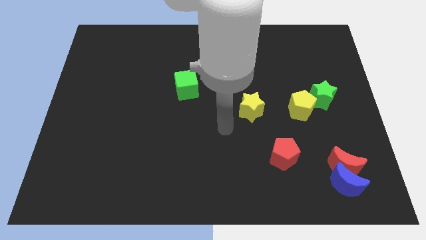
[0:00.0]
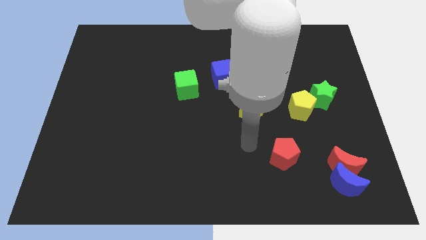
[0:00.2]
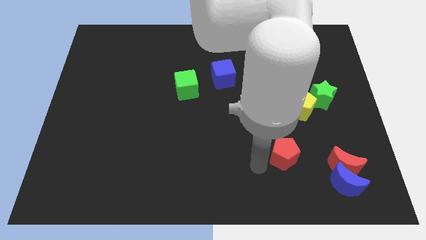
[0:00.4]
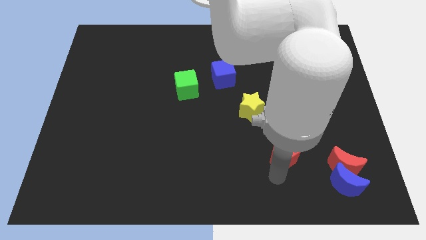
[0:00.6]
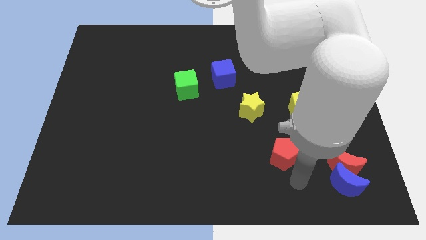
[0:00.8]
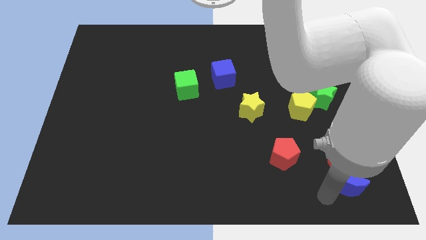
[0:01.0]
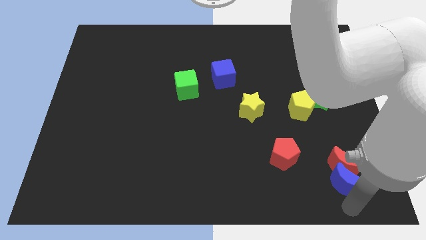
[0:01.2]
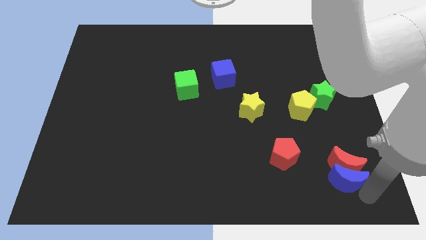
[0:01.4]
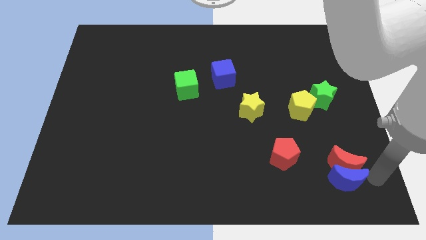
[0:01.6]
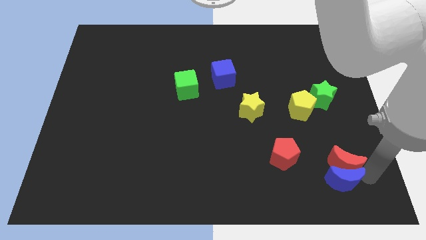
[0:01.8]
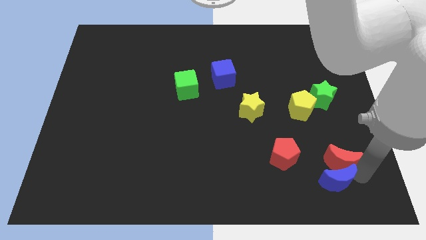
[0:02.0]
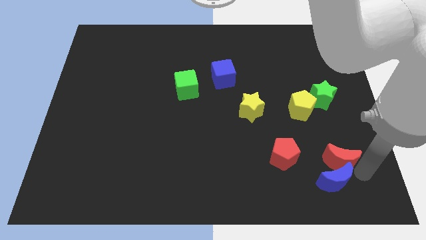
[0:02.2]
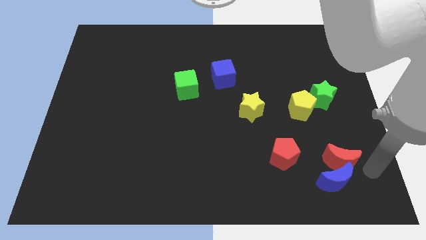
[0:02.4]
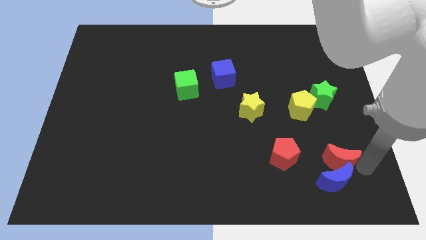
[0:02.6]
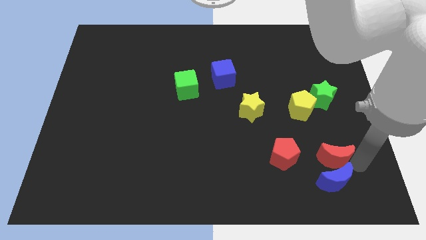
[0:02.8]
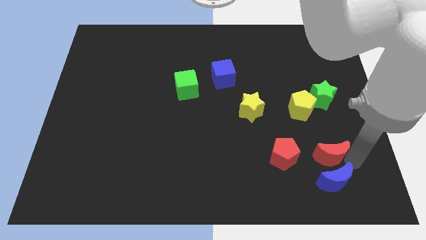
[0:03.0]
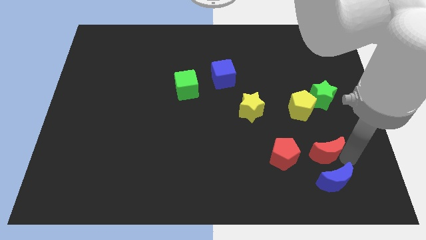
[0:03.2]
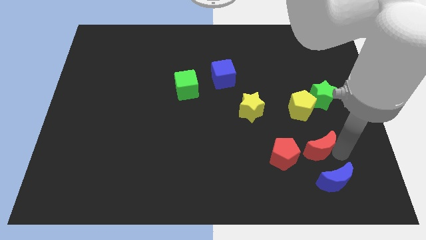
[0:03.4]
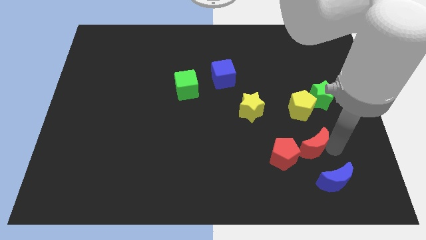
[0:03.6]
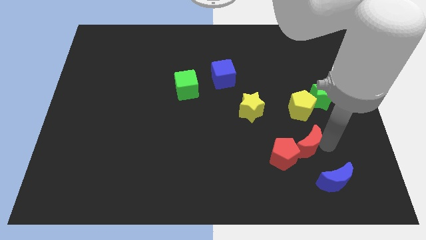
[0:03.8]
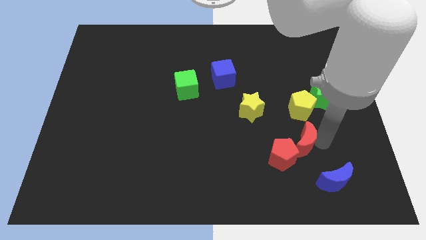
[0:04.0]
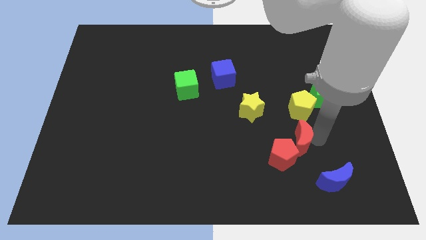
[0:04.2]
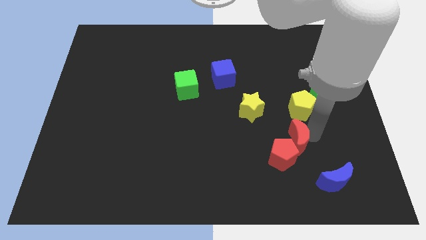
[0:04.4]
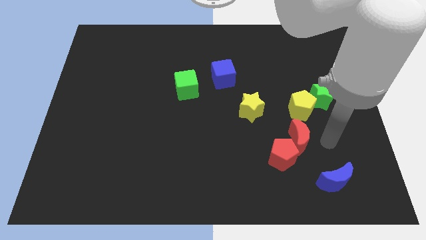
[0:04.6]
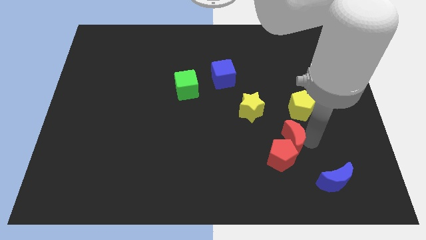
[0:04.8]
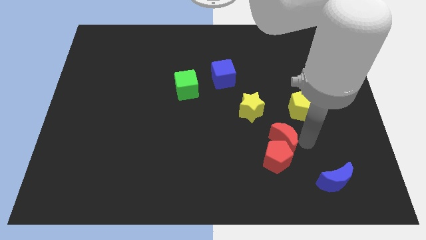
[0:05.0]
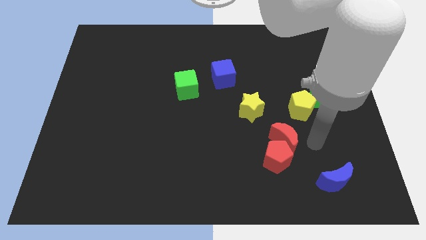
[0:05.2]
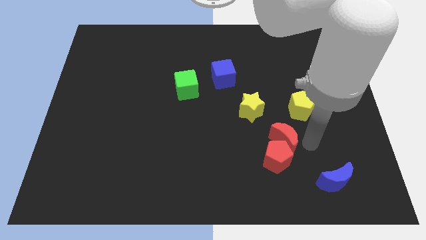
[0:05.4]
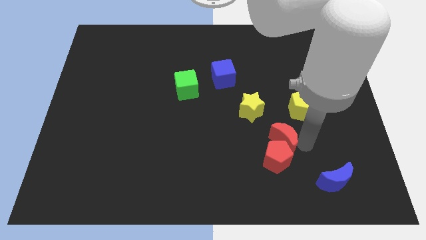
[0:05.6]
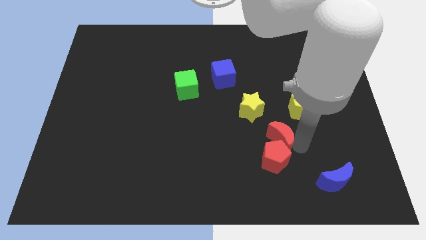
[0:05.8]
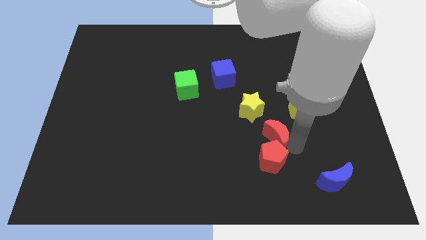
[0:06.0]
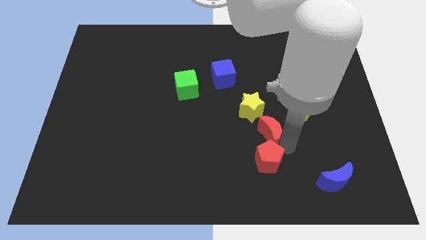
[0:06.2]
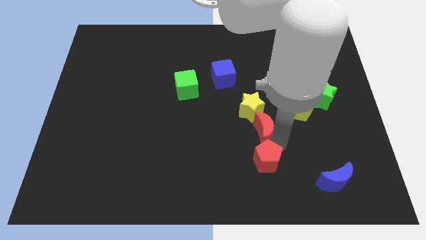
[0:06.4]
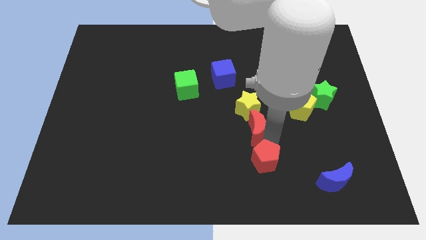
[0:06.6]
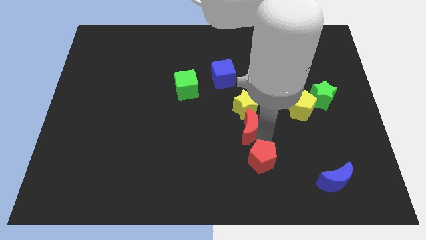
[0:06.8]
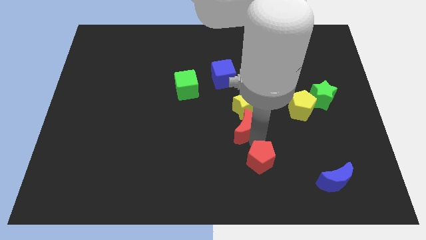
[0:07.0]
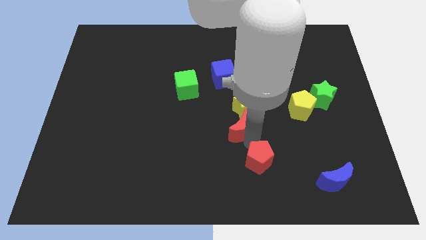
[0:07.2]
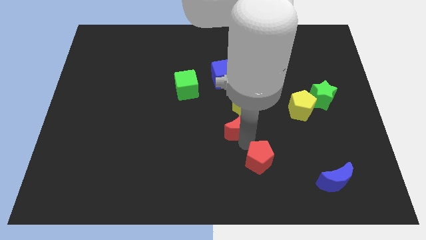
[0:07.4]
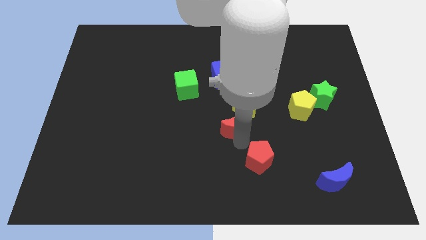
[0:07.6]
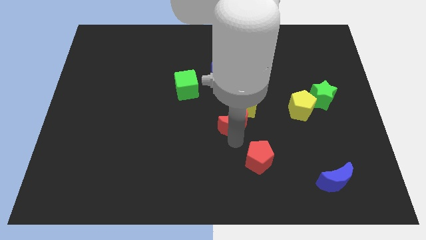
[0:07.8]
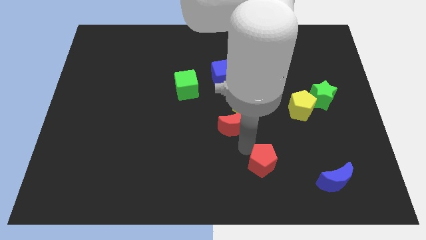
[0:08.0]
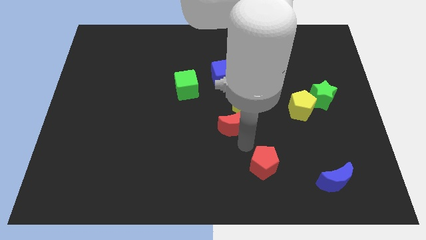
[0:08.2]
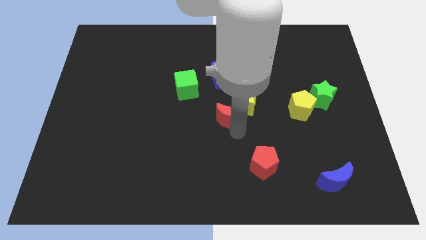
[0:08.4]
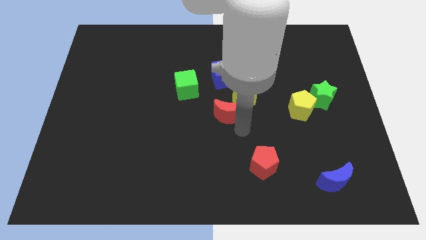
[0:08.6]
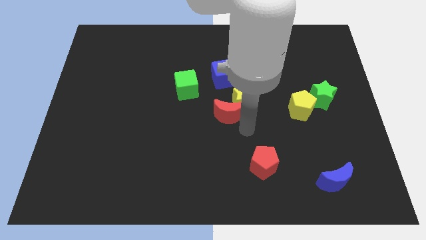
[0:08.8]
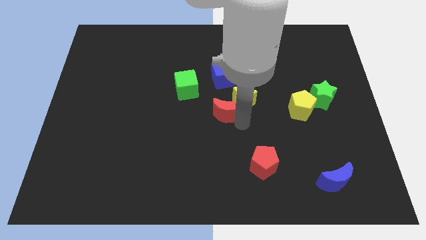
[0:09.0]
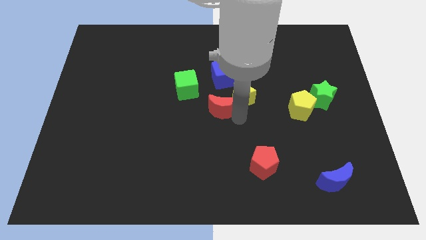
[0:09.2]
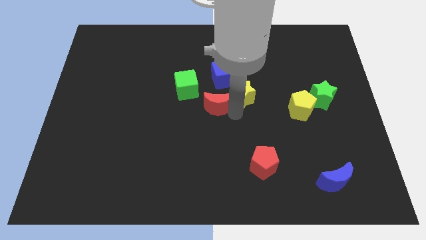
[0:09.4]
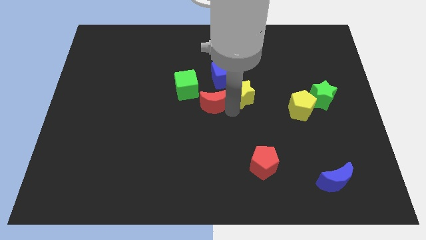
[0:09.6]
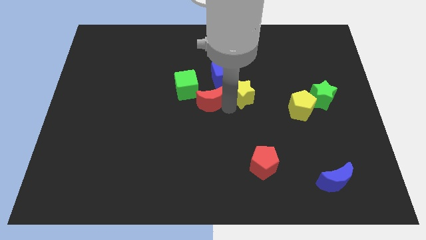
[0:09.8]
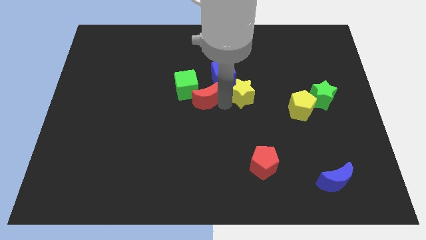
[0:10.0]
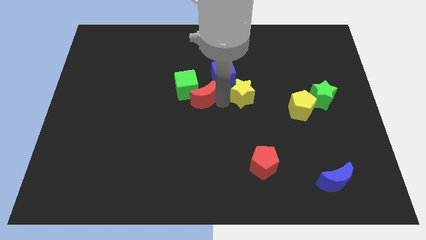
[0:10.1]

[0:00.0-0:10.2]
slide the red moon next to the green cube

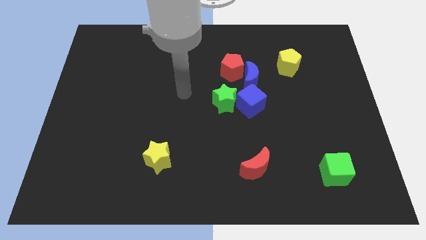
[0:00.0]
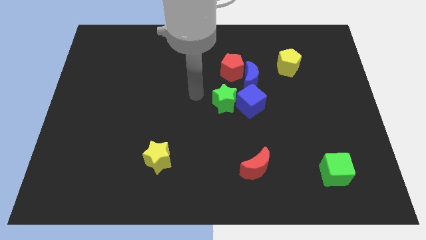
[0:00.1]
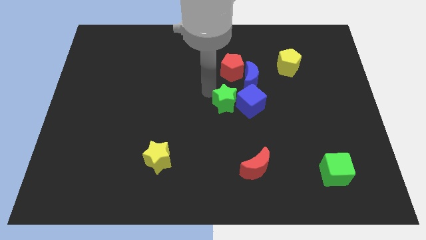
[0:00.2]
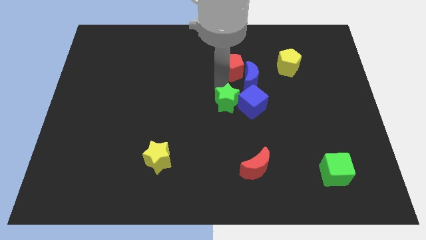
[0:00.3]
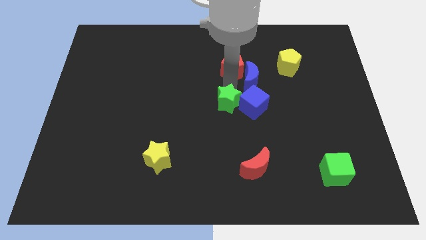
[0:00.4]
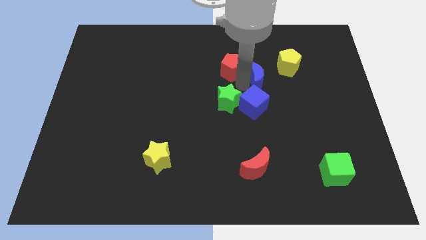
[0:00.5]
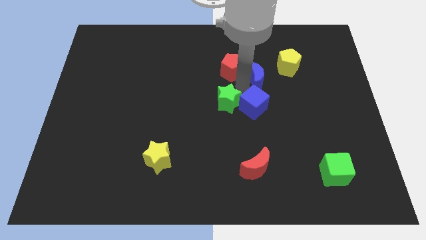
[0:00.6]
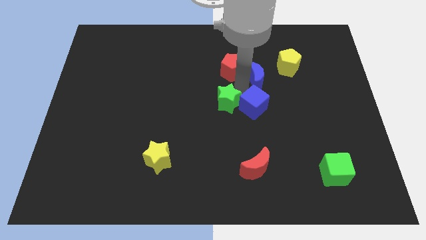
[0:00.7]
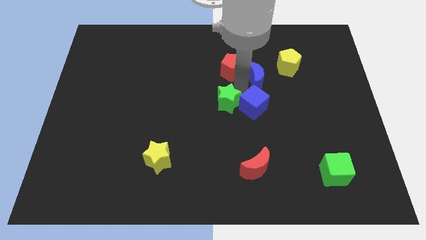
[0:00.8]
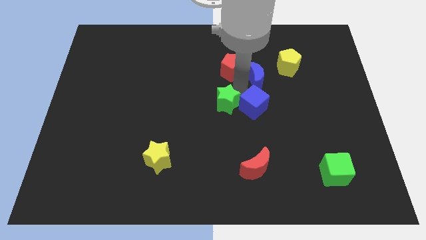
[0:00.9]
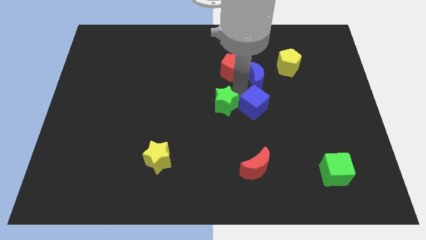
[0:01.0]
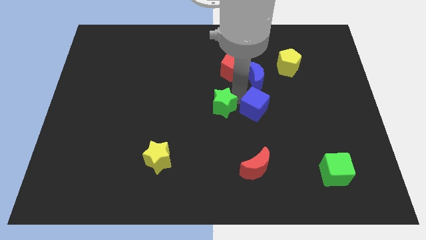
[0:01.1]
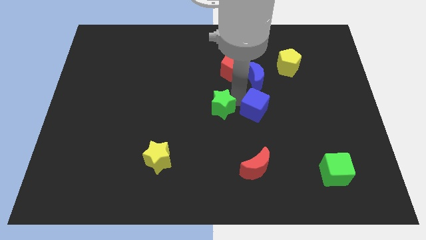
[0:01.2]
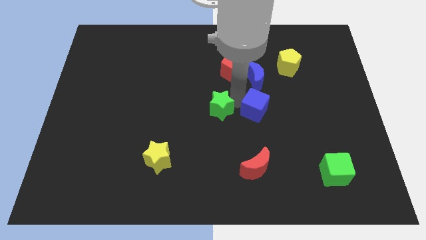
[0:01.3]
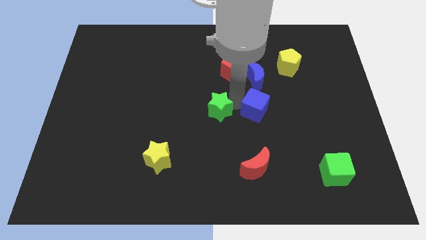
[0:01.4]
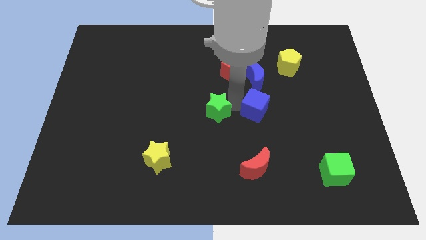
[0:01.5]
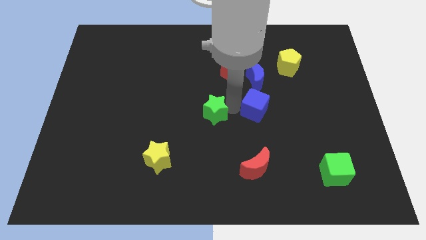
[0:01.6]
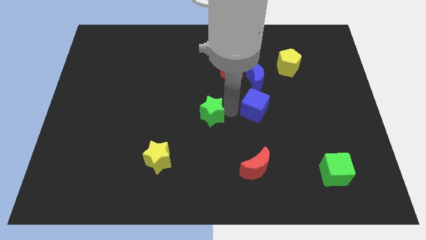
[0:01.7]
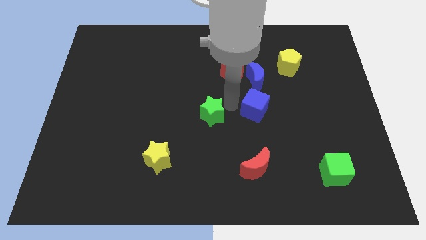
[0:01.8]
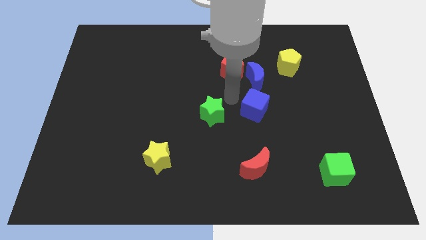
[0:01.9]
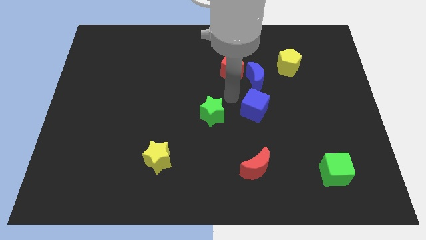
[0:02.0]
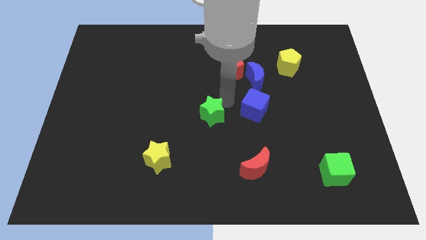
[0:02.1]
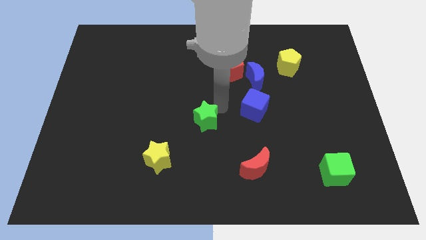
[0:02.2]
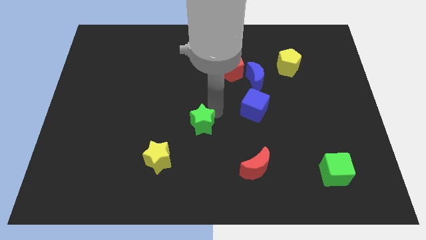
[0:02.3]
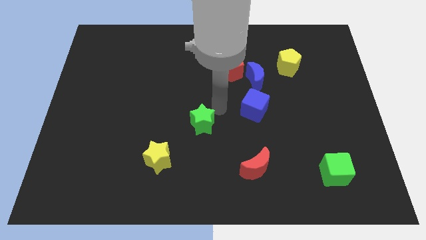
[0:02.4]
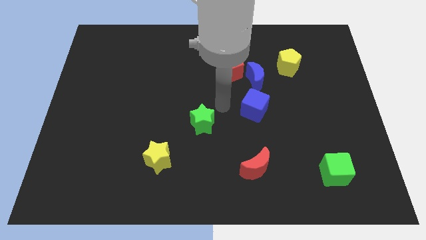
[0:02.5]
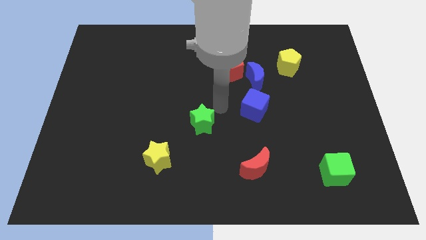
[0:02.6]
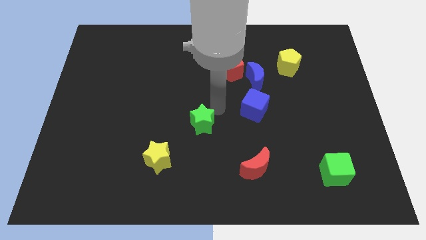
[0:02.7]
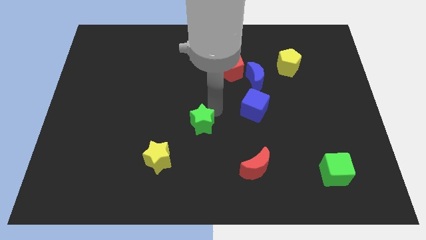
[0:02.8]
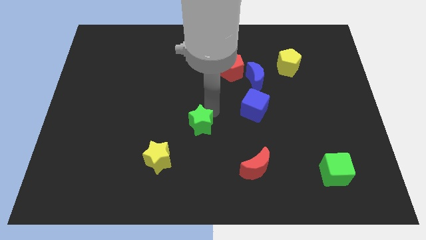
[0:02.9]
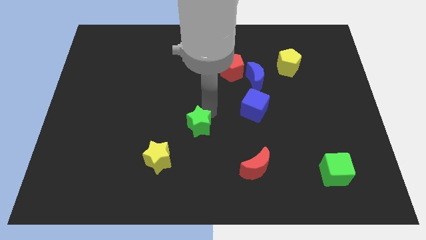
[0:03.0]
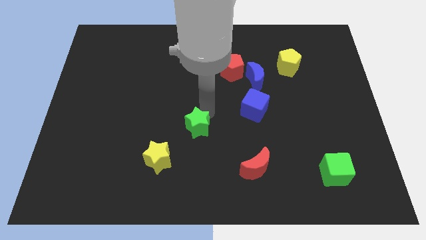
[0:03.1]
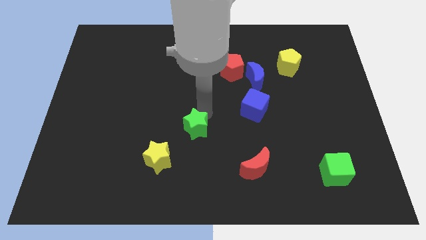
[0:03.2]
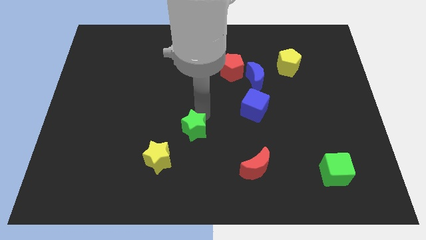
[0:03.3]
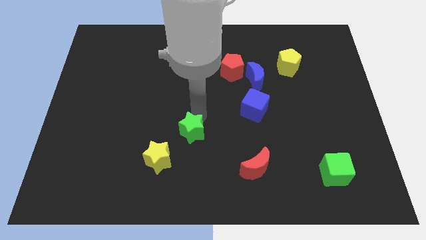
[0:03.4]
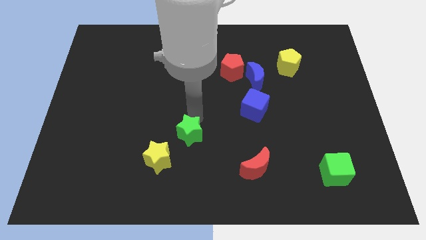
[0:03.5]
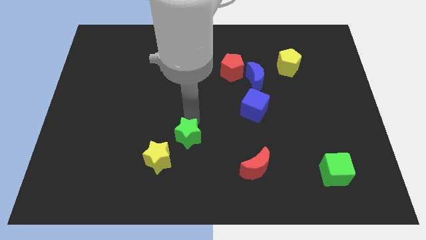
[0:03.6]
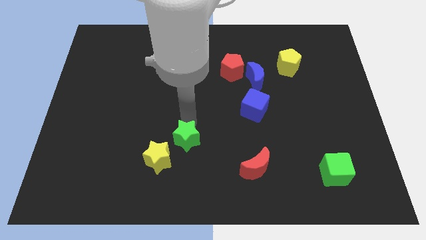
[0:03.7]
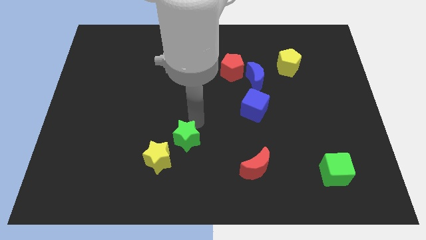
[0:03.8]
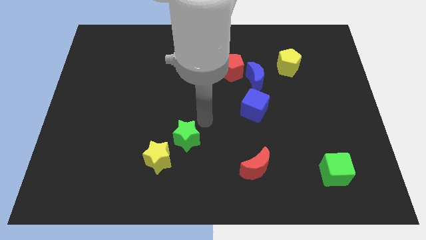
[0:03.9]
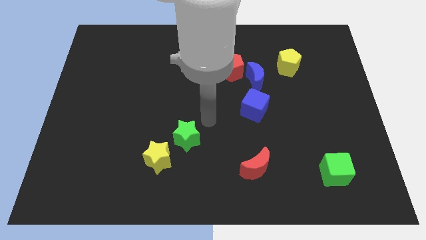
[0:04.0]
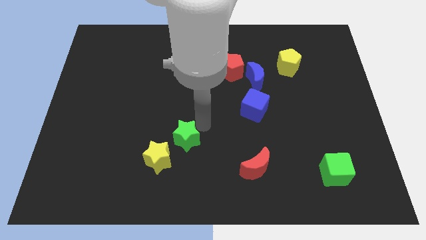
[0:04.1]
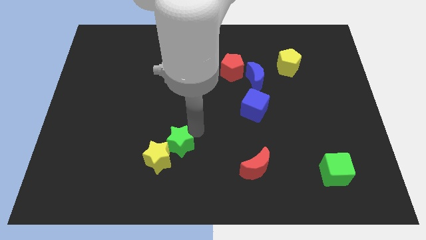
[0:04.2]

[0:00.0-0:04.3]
slide the green star to the yellow star
